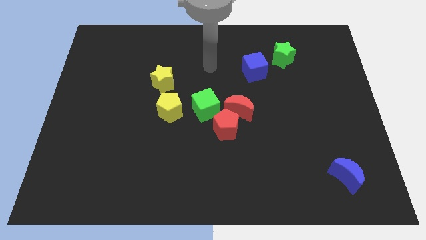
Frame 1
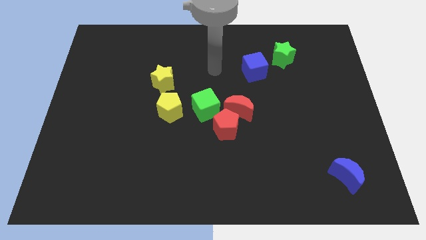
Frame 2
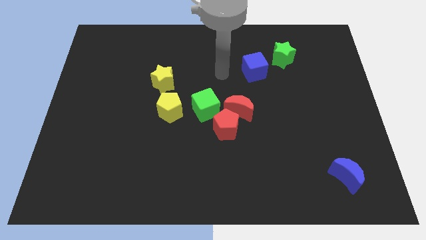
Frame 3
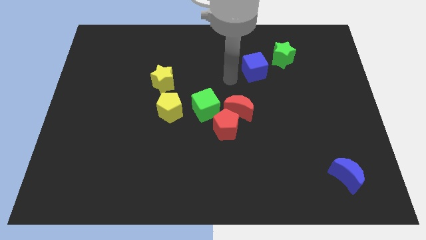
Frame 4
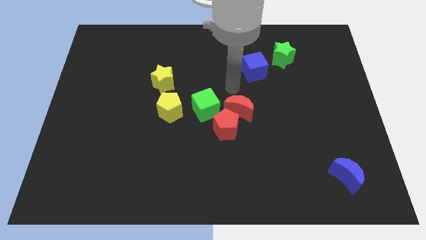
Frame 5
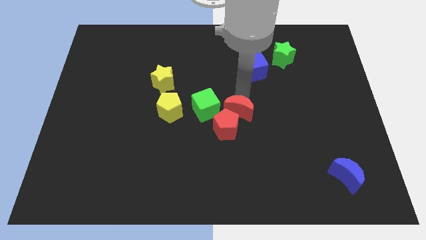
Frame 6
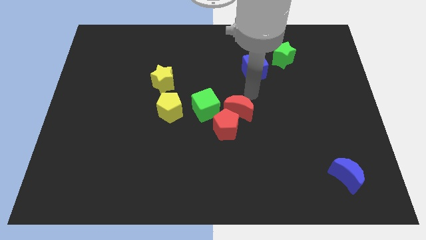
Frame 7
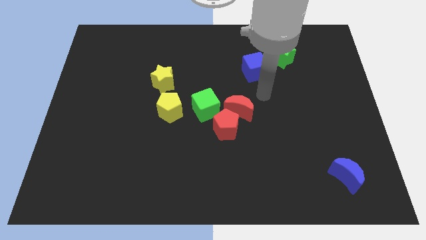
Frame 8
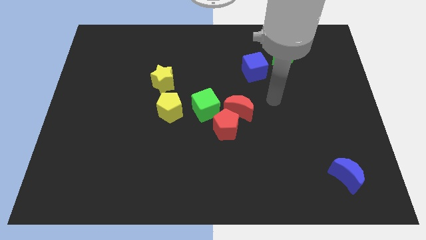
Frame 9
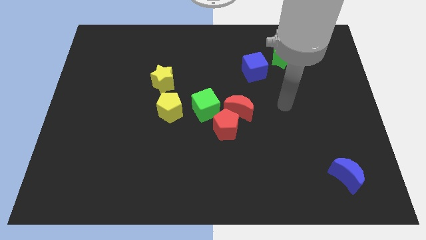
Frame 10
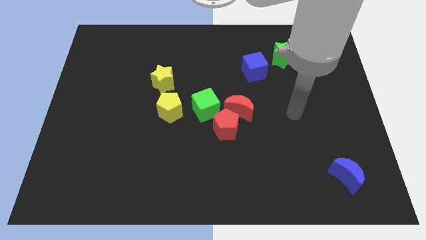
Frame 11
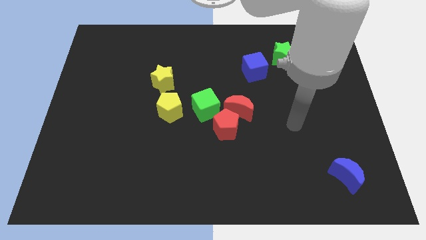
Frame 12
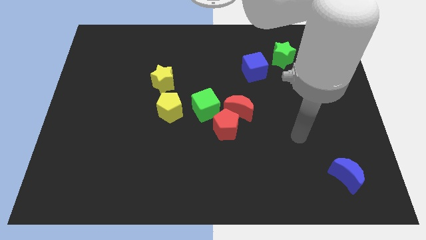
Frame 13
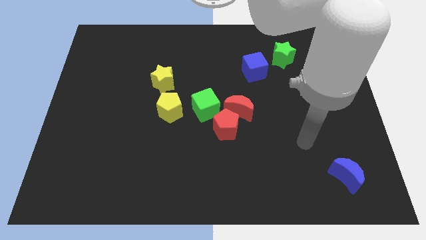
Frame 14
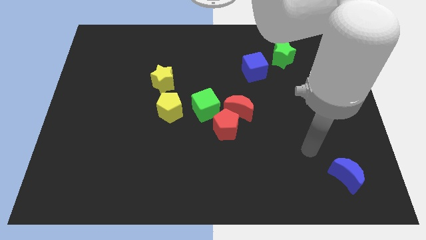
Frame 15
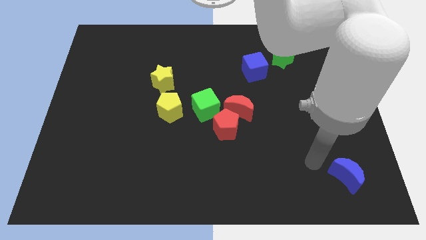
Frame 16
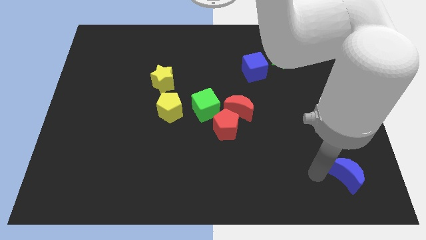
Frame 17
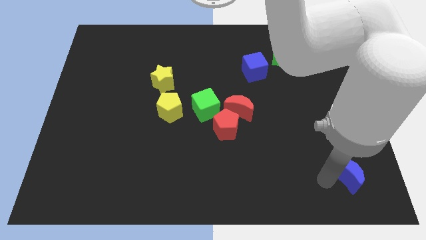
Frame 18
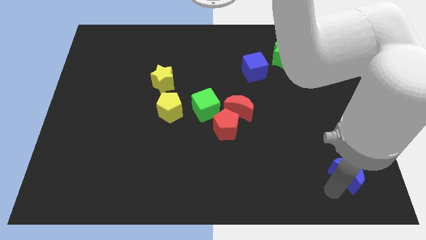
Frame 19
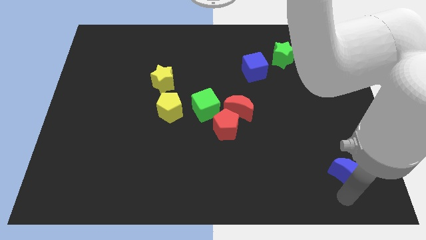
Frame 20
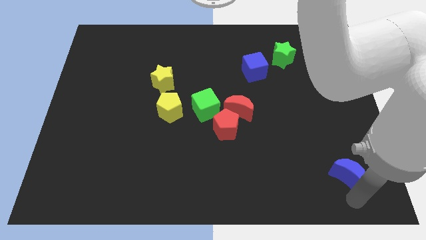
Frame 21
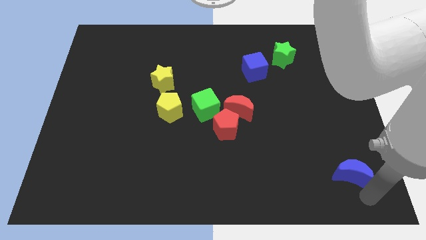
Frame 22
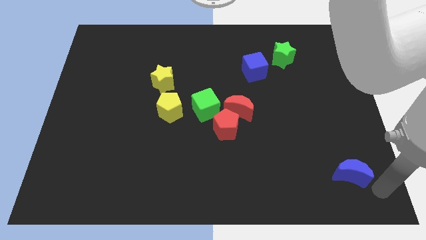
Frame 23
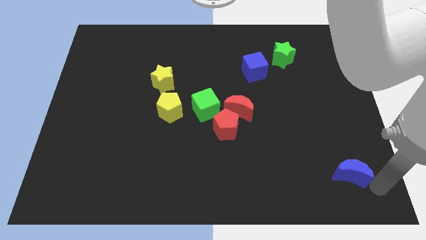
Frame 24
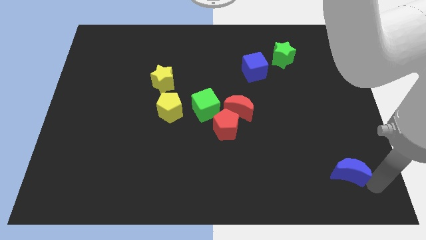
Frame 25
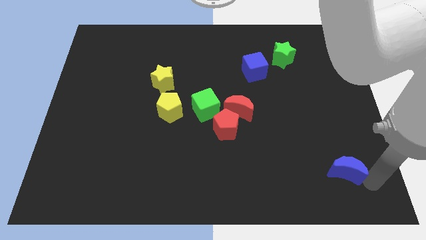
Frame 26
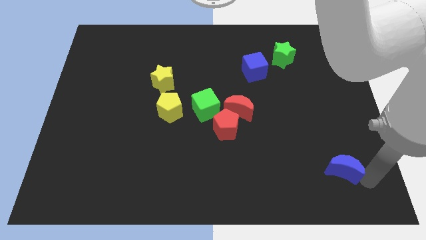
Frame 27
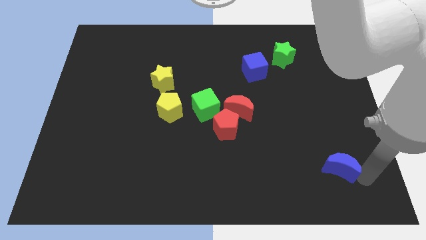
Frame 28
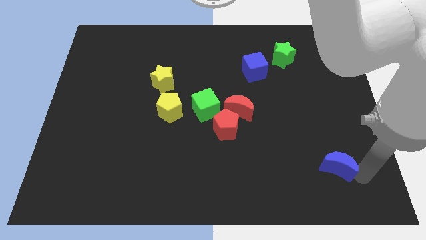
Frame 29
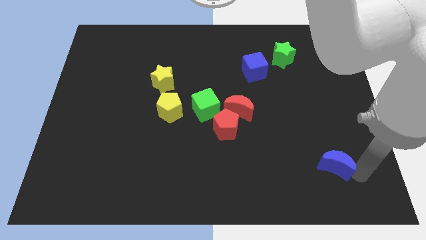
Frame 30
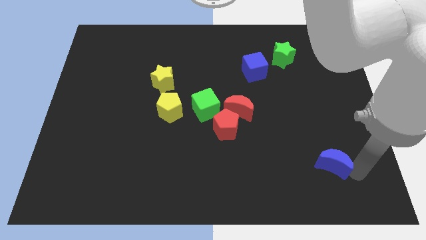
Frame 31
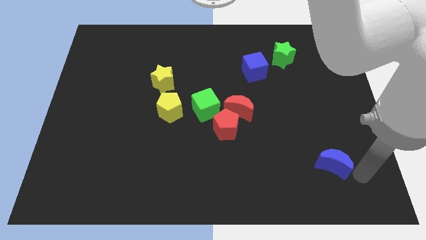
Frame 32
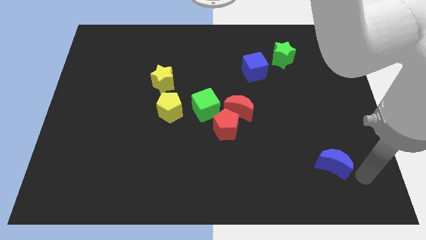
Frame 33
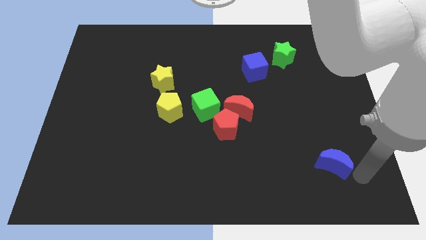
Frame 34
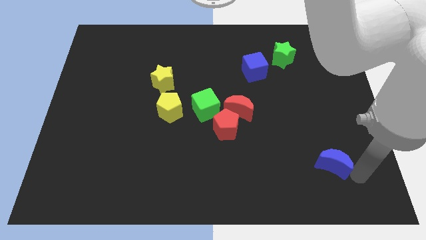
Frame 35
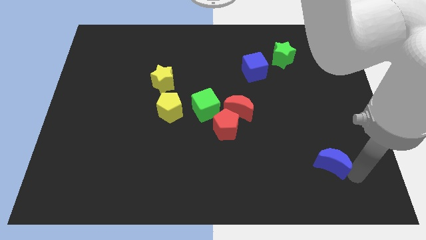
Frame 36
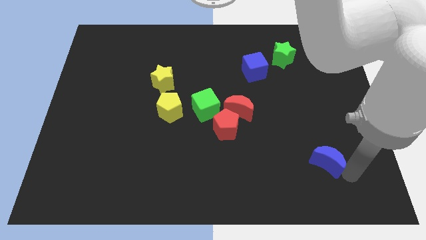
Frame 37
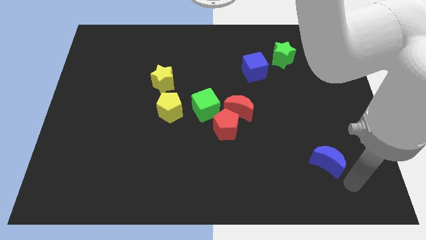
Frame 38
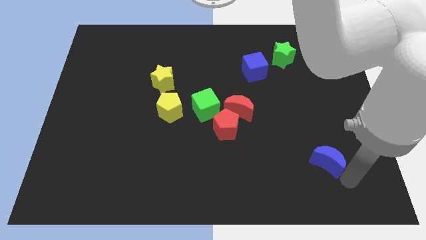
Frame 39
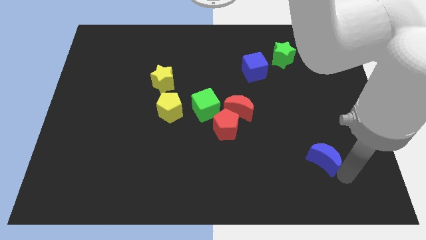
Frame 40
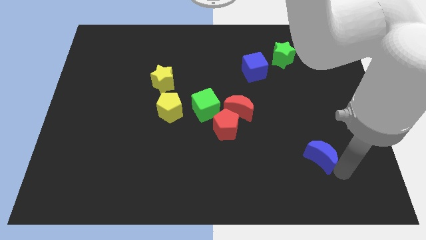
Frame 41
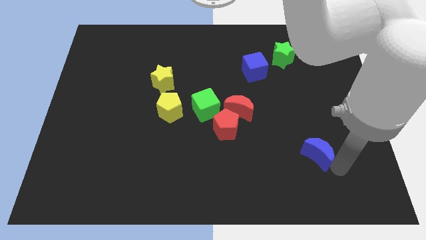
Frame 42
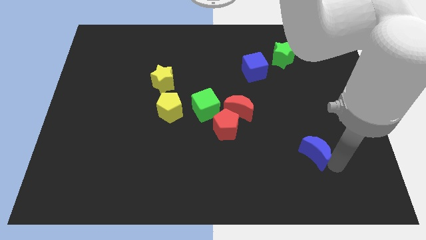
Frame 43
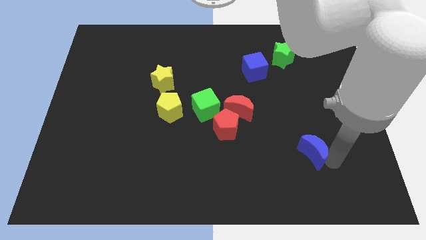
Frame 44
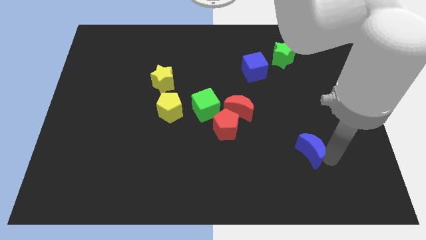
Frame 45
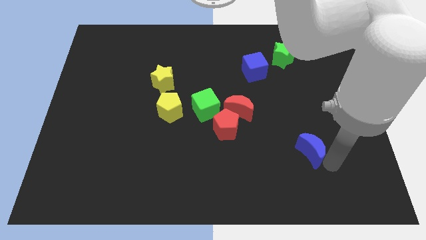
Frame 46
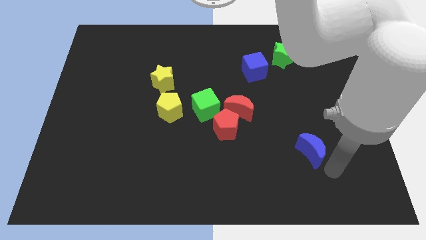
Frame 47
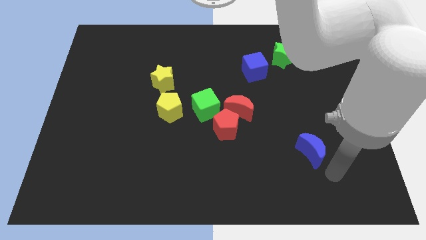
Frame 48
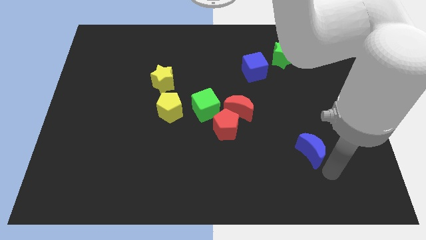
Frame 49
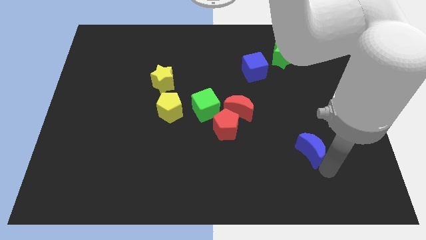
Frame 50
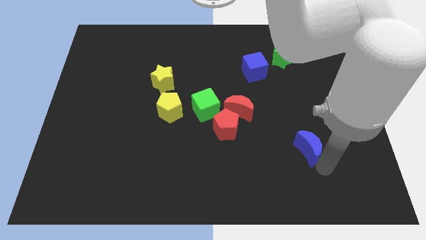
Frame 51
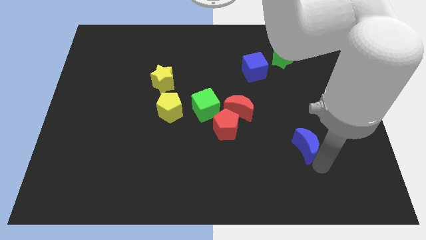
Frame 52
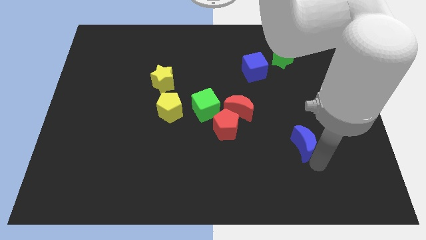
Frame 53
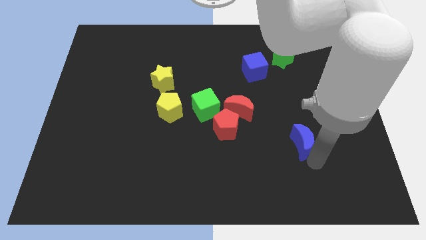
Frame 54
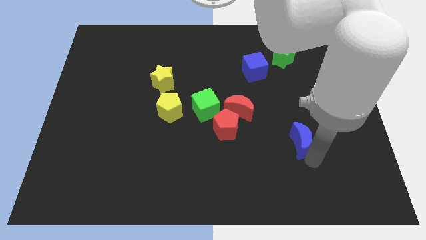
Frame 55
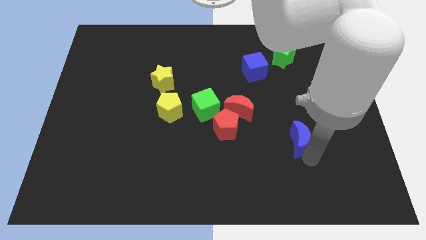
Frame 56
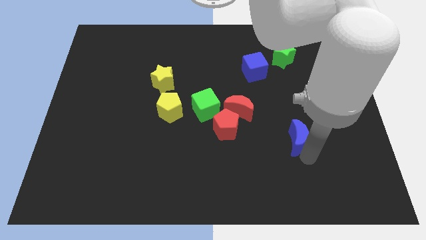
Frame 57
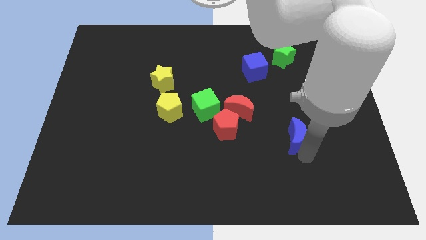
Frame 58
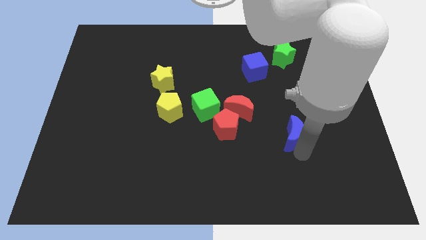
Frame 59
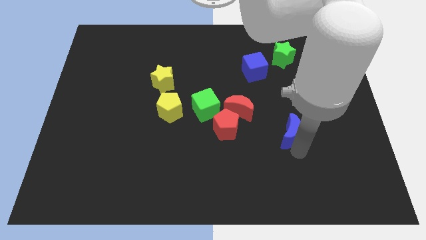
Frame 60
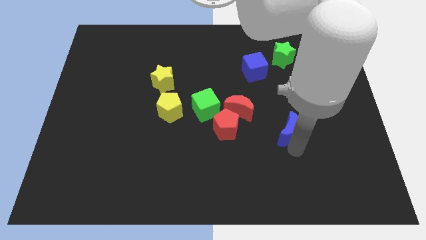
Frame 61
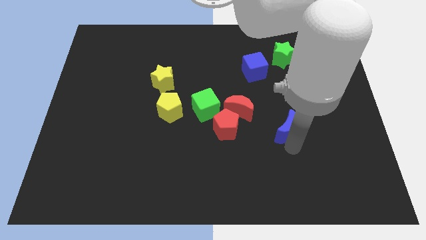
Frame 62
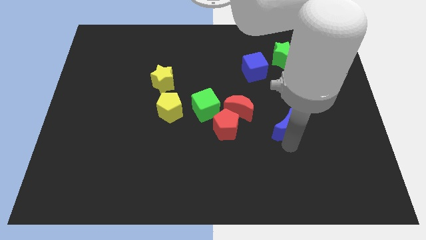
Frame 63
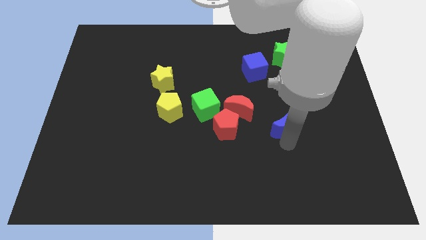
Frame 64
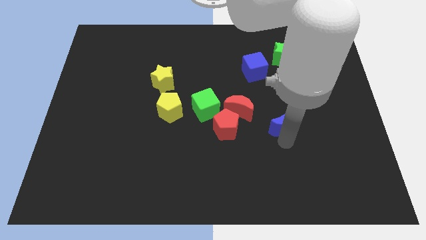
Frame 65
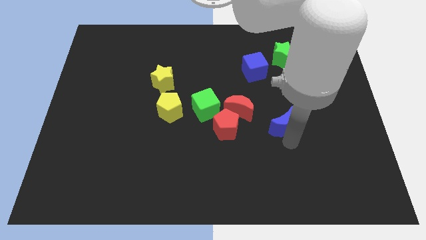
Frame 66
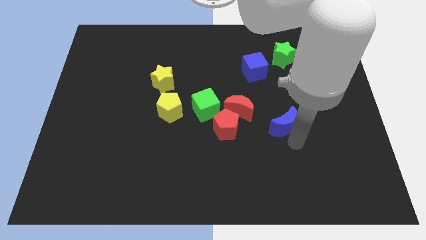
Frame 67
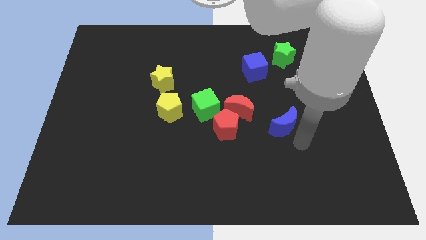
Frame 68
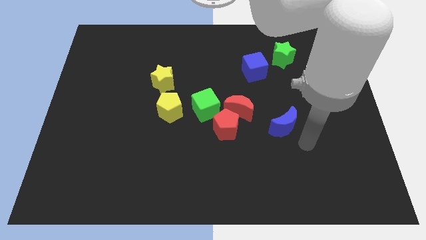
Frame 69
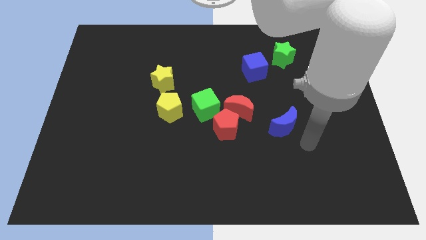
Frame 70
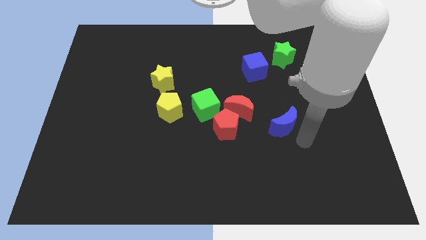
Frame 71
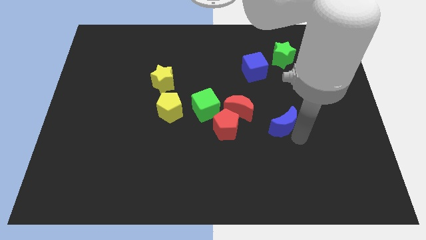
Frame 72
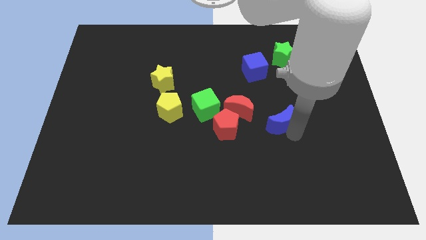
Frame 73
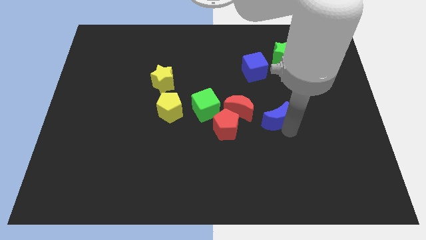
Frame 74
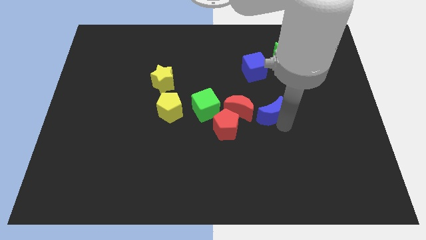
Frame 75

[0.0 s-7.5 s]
put the blue moon to the right of the green cube
